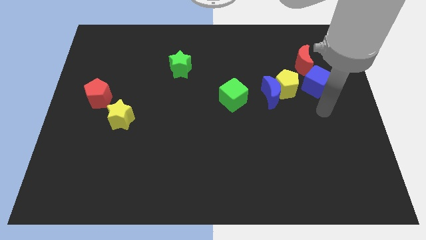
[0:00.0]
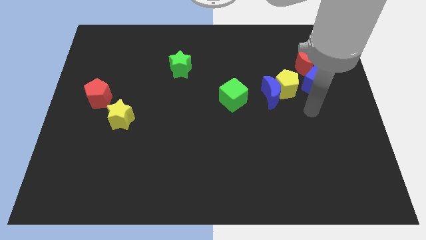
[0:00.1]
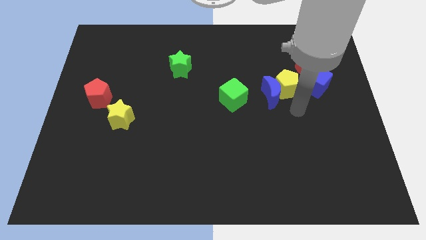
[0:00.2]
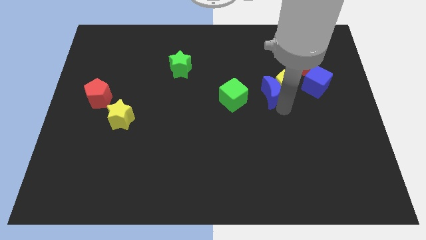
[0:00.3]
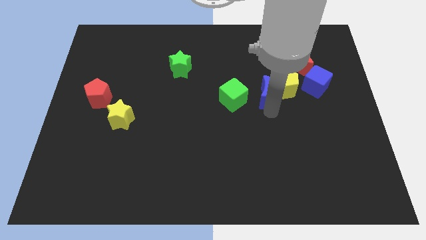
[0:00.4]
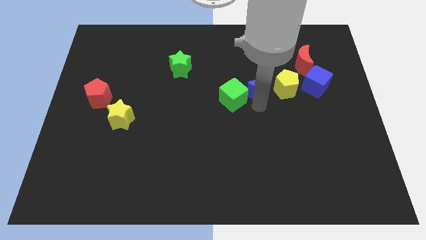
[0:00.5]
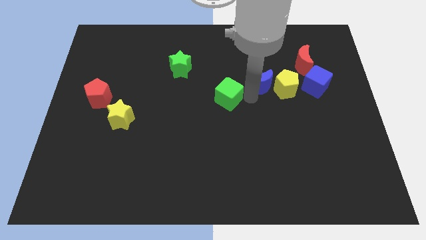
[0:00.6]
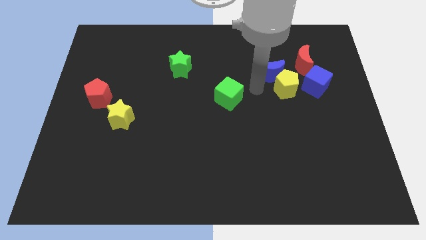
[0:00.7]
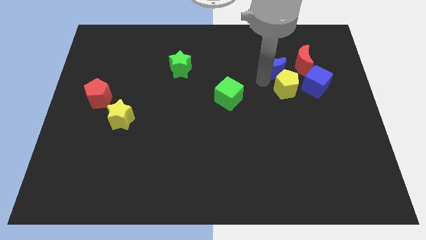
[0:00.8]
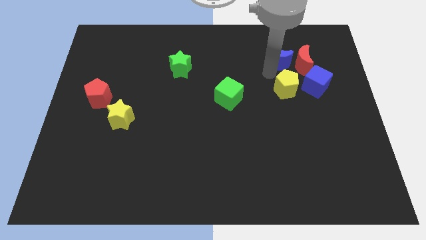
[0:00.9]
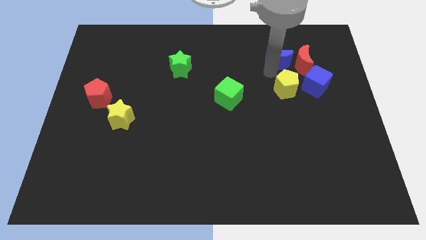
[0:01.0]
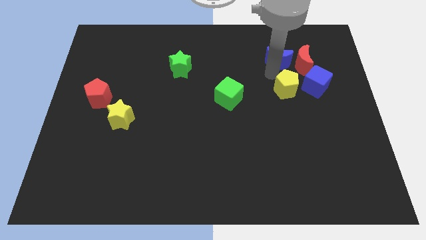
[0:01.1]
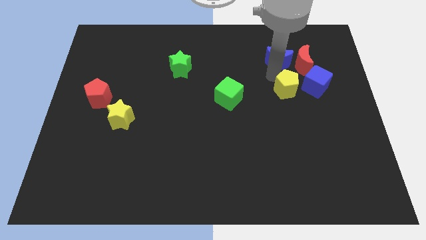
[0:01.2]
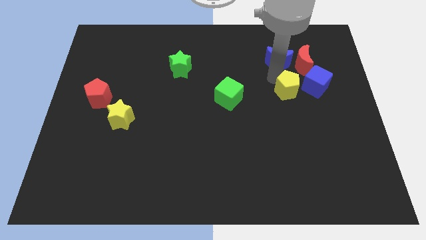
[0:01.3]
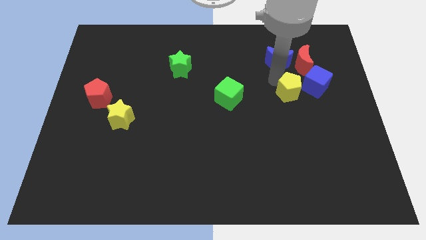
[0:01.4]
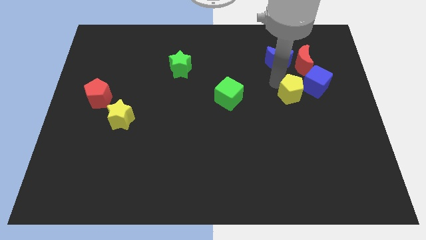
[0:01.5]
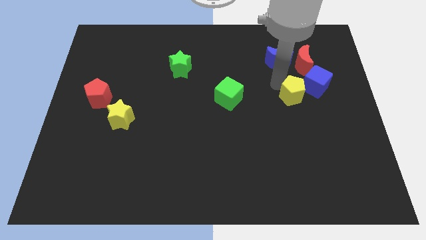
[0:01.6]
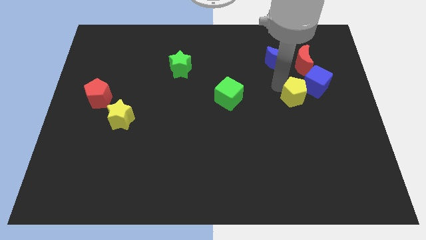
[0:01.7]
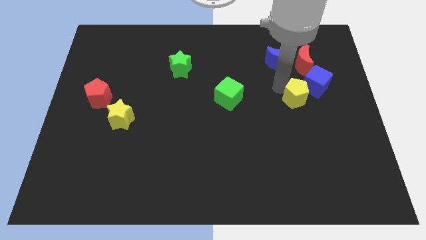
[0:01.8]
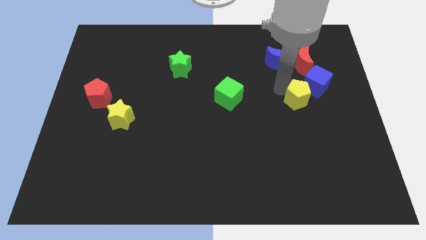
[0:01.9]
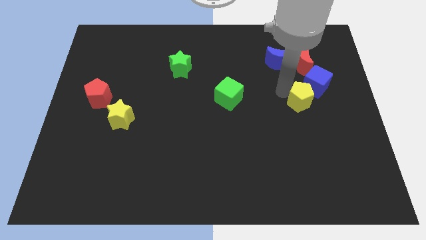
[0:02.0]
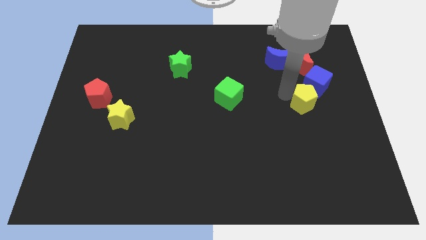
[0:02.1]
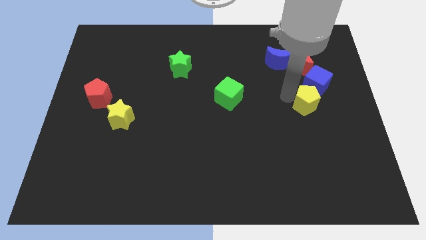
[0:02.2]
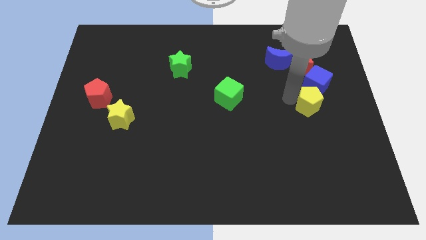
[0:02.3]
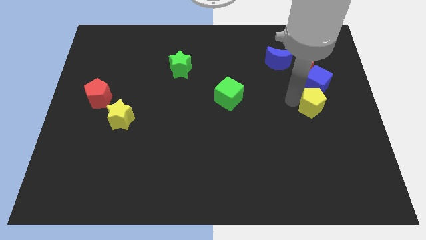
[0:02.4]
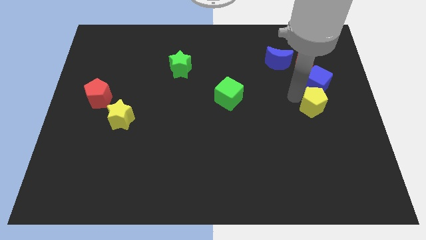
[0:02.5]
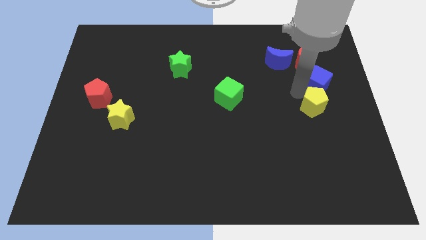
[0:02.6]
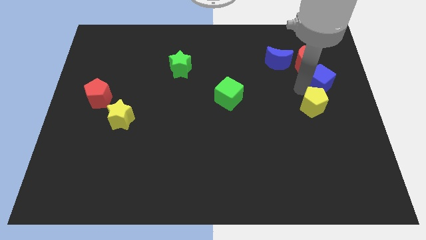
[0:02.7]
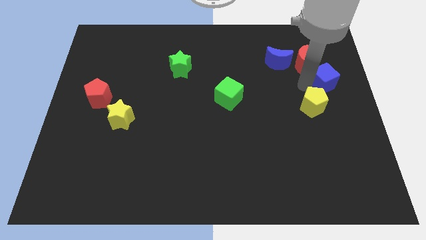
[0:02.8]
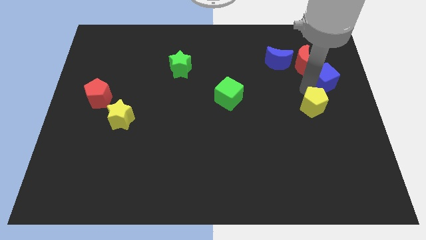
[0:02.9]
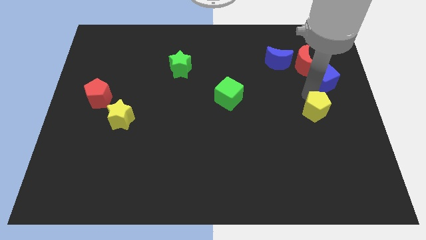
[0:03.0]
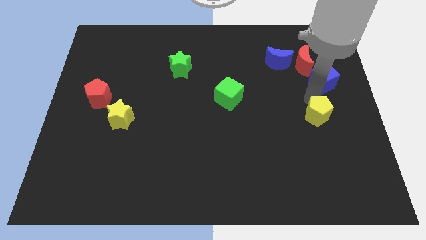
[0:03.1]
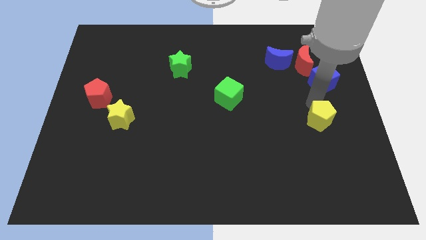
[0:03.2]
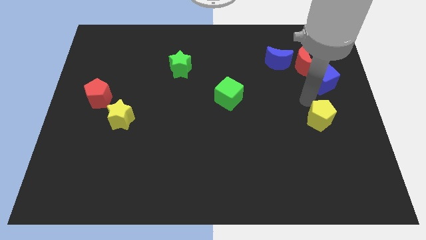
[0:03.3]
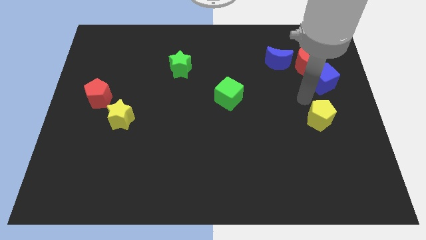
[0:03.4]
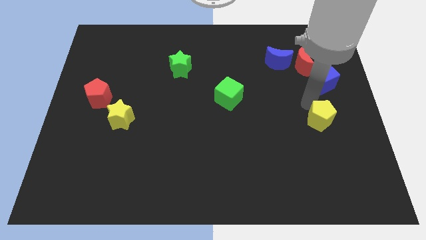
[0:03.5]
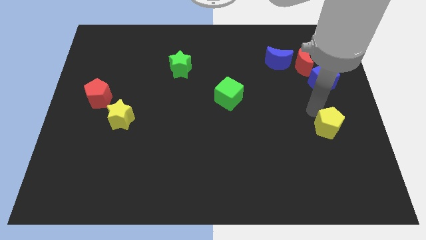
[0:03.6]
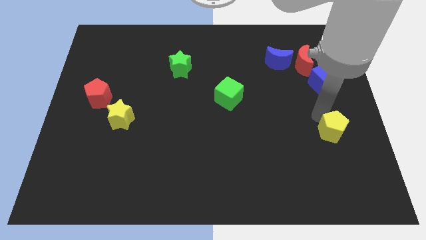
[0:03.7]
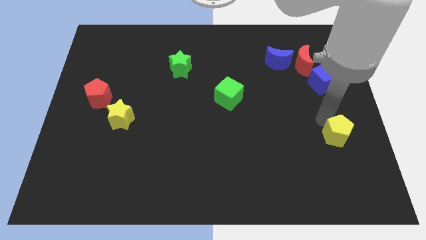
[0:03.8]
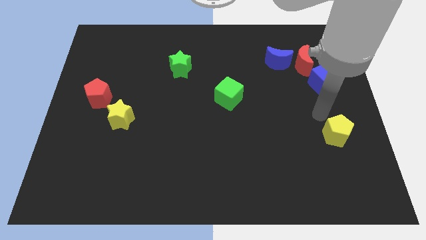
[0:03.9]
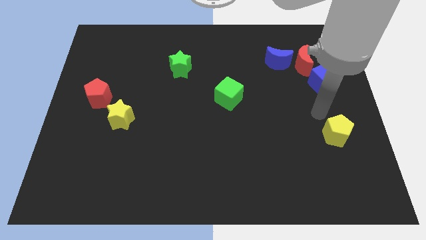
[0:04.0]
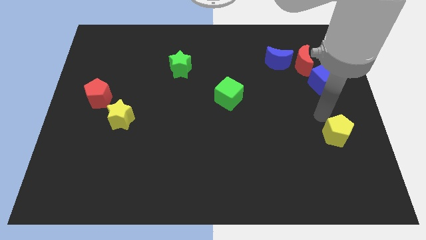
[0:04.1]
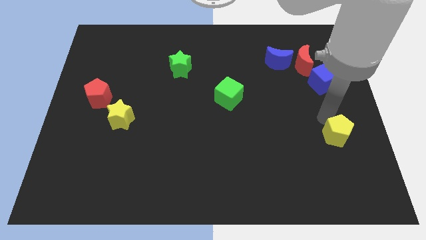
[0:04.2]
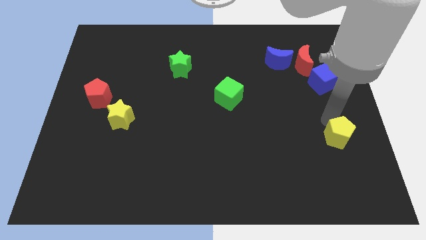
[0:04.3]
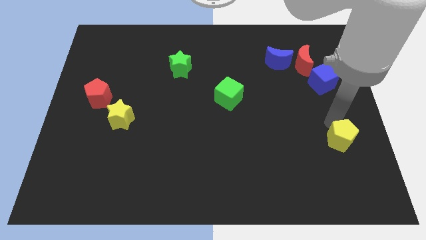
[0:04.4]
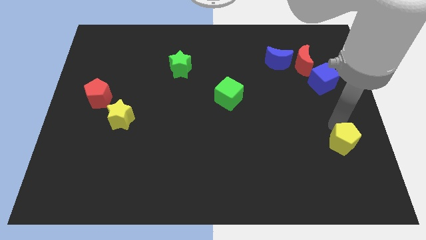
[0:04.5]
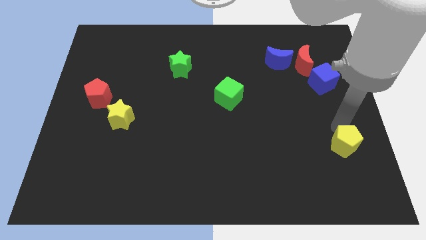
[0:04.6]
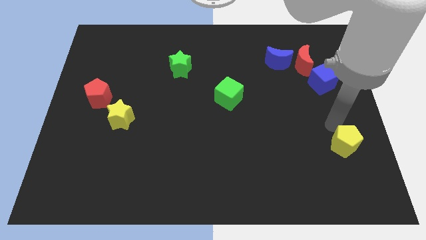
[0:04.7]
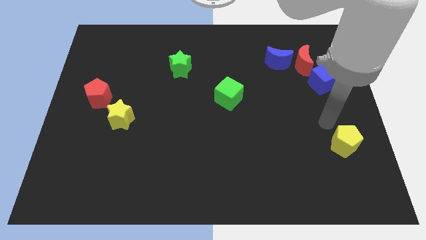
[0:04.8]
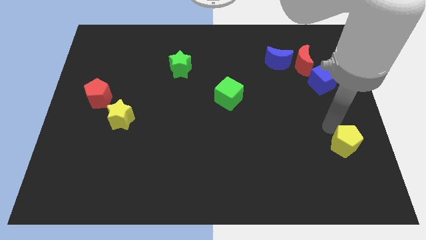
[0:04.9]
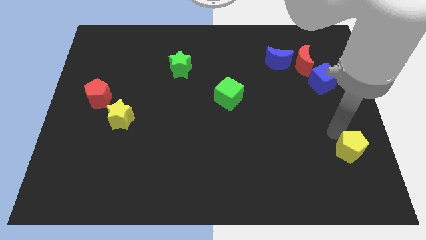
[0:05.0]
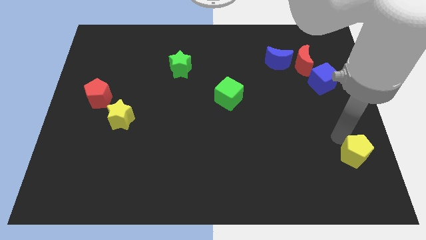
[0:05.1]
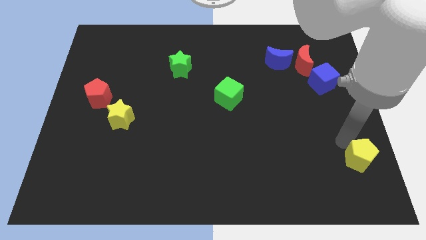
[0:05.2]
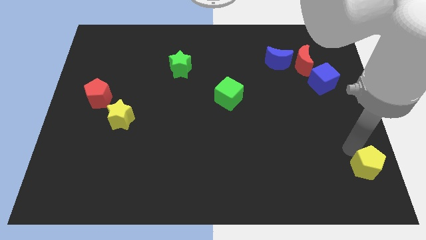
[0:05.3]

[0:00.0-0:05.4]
slide the yellow pentagon to the bottom right corner

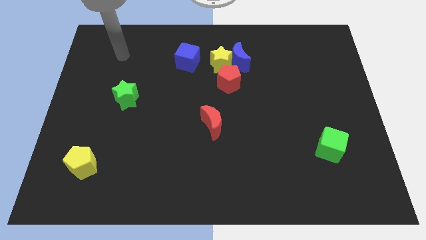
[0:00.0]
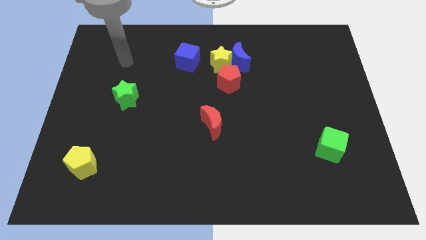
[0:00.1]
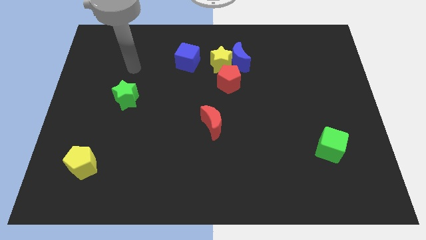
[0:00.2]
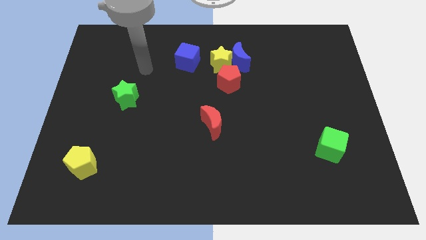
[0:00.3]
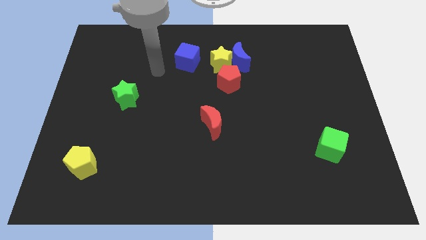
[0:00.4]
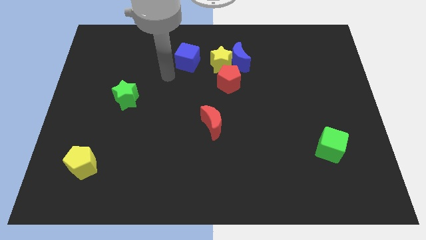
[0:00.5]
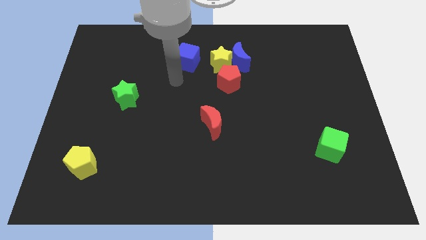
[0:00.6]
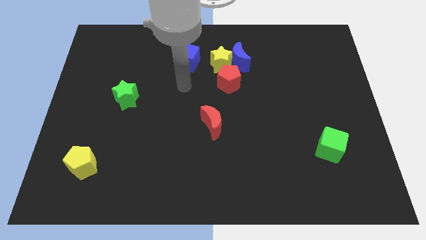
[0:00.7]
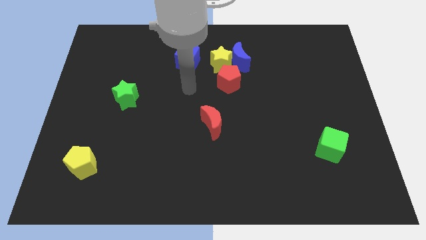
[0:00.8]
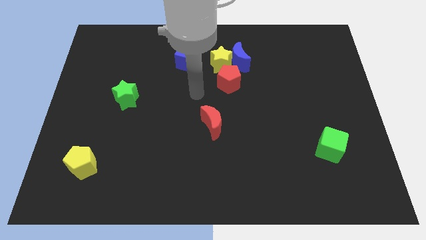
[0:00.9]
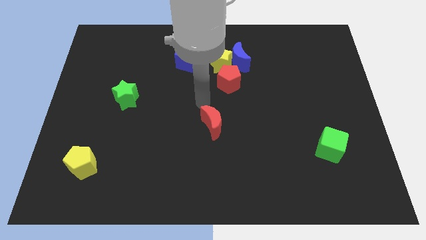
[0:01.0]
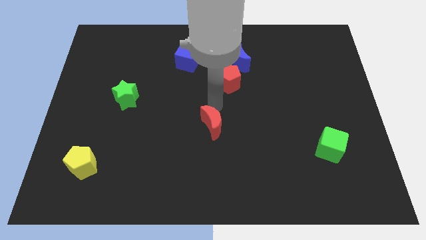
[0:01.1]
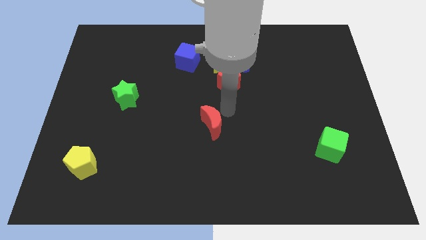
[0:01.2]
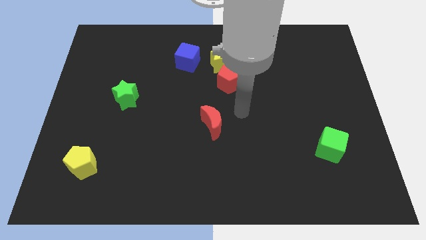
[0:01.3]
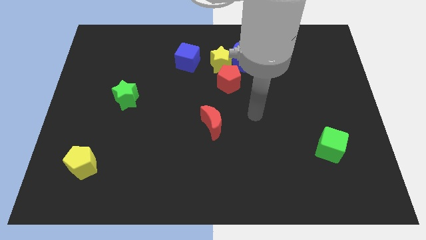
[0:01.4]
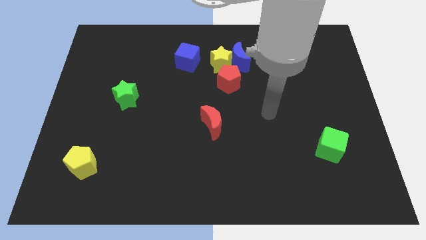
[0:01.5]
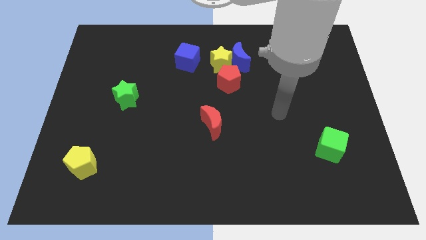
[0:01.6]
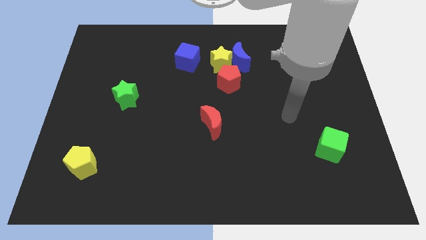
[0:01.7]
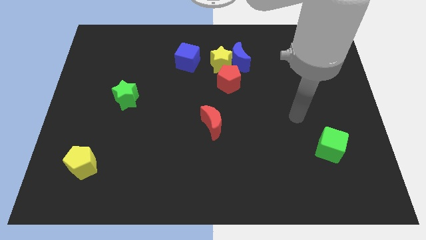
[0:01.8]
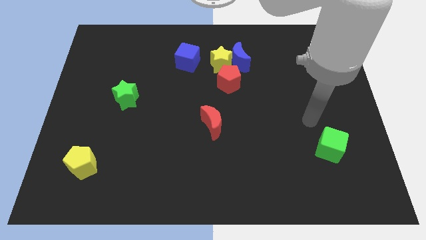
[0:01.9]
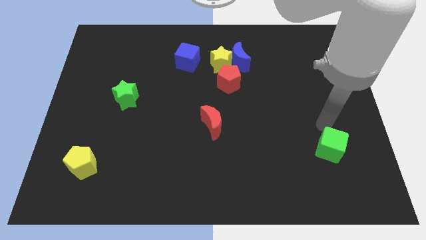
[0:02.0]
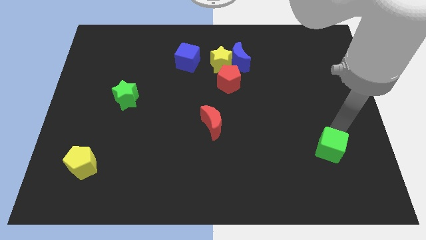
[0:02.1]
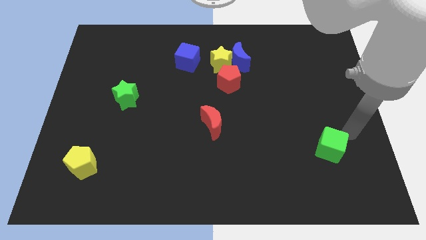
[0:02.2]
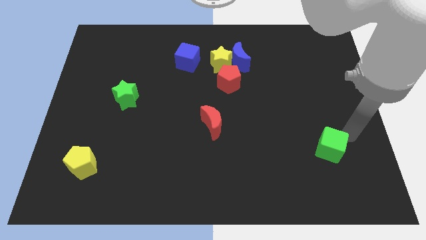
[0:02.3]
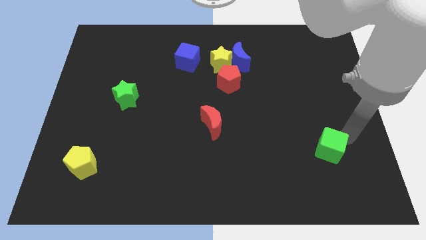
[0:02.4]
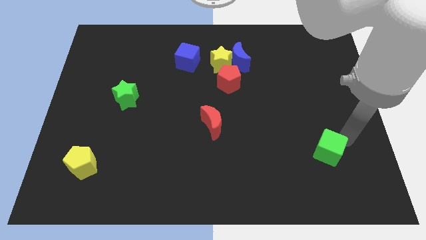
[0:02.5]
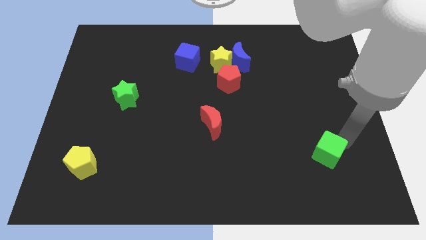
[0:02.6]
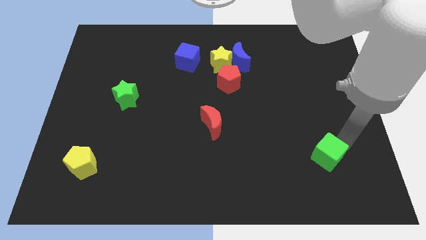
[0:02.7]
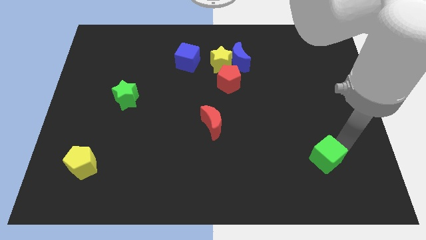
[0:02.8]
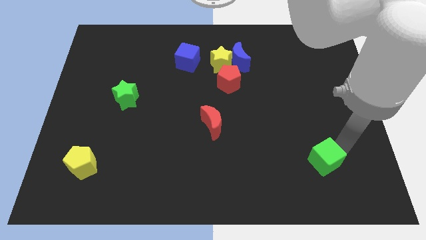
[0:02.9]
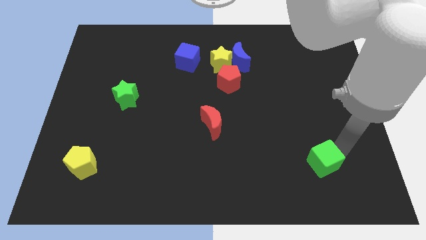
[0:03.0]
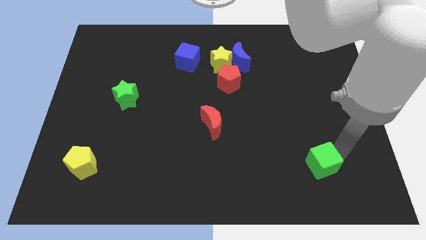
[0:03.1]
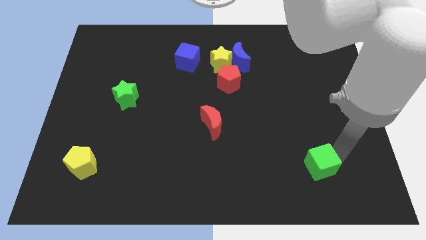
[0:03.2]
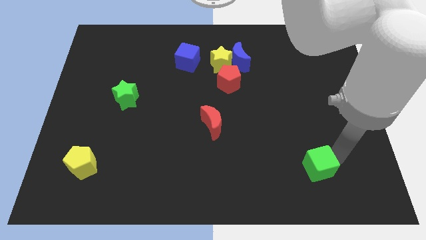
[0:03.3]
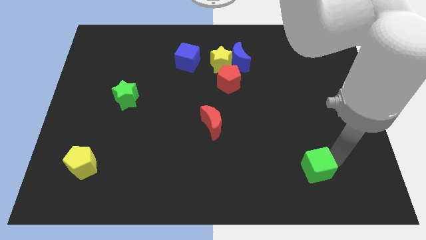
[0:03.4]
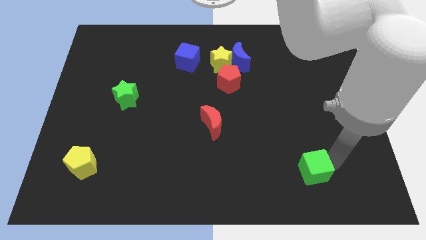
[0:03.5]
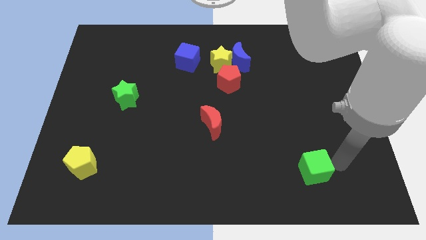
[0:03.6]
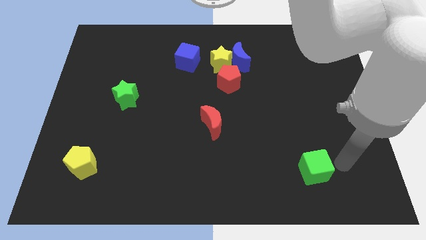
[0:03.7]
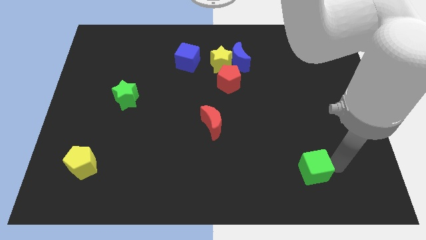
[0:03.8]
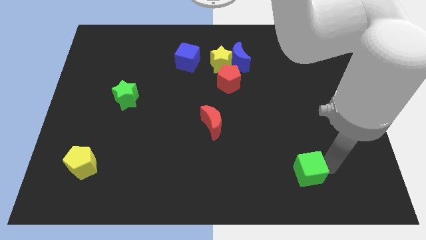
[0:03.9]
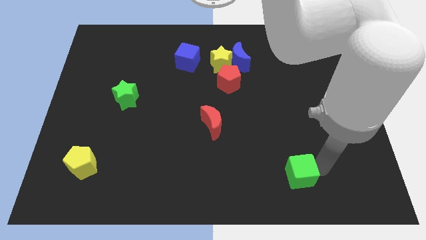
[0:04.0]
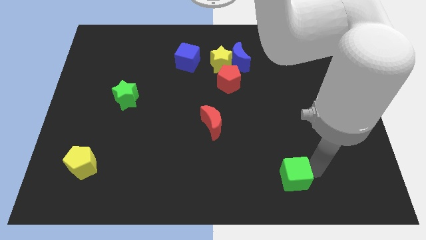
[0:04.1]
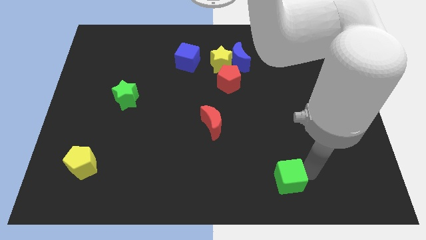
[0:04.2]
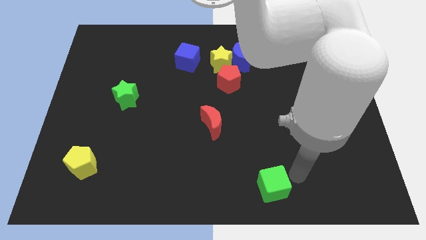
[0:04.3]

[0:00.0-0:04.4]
slide the green cube to the bottom
